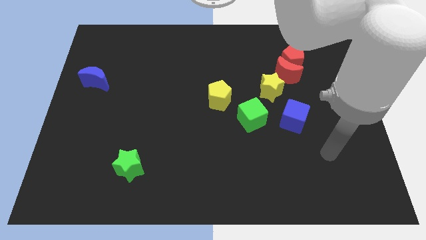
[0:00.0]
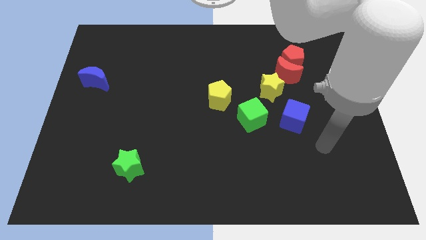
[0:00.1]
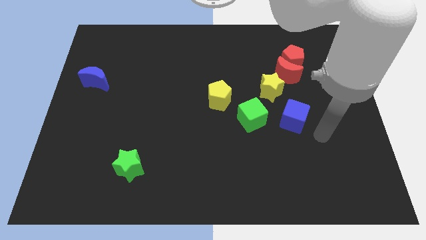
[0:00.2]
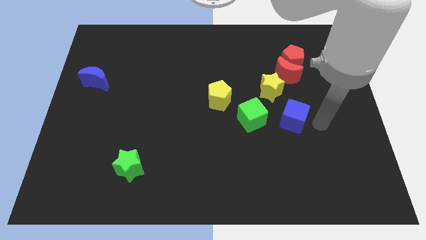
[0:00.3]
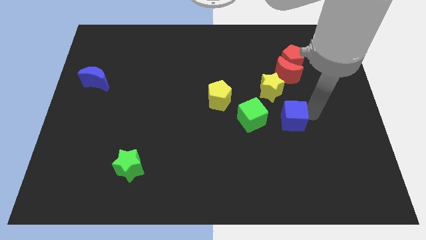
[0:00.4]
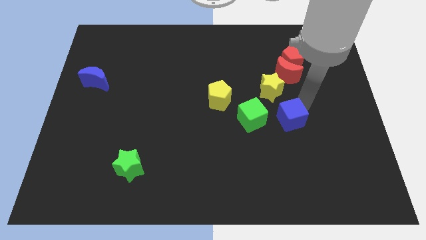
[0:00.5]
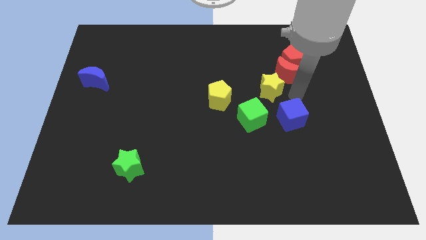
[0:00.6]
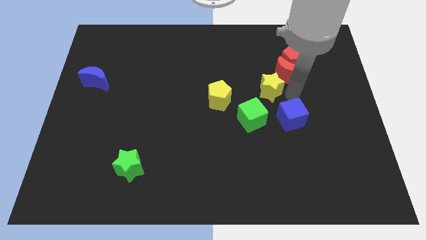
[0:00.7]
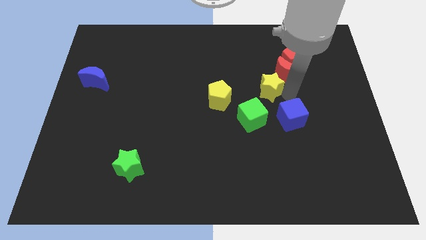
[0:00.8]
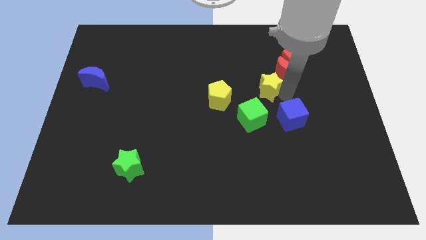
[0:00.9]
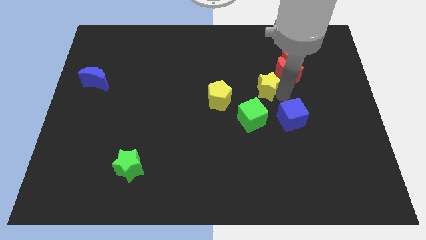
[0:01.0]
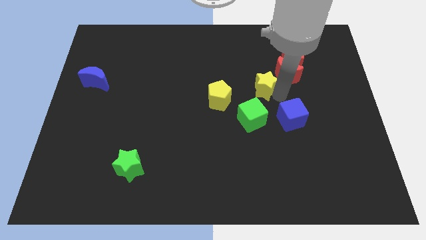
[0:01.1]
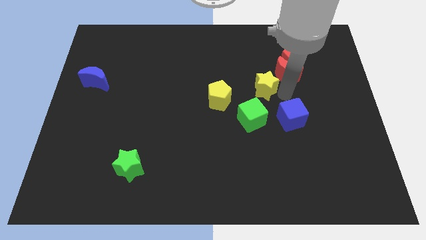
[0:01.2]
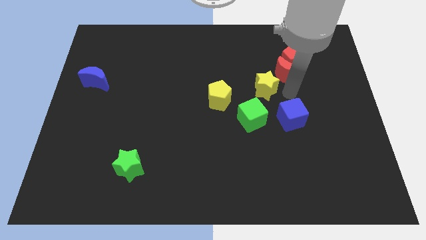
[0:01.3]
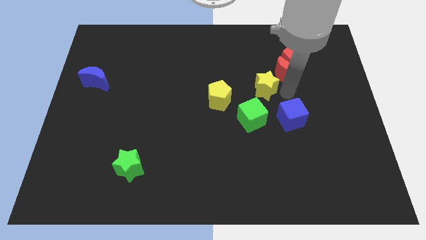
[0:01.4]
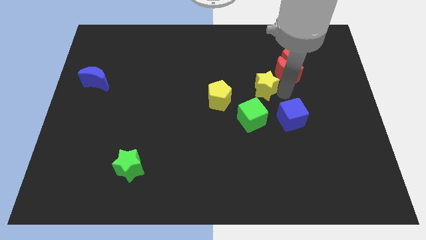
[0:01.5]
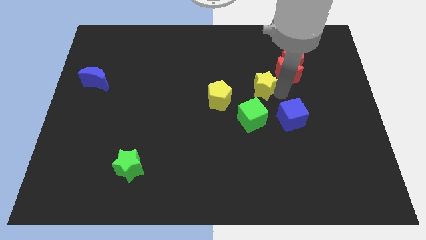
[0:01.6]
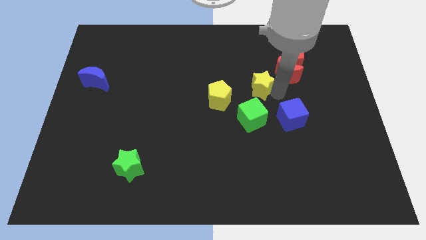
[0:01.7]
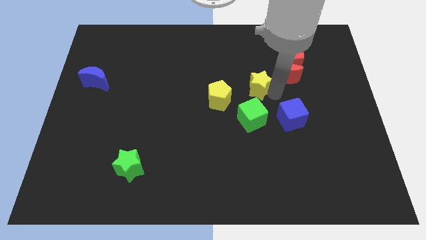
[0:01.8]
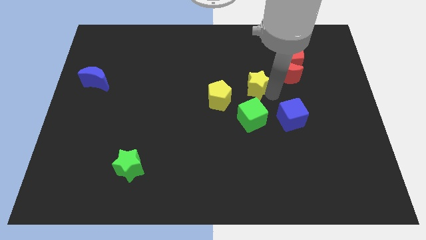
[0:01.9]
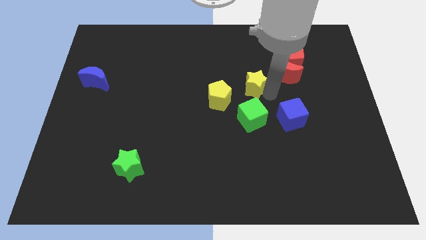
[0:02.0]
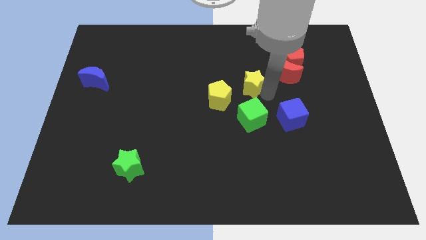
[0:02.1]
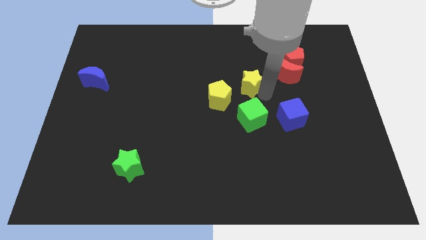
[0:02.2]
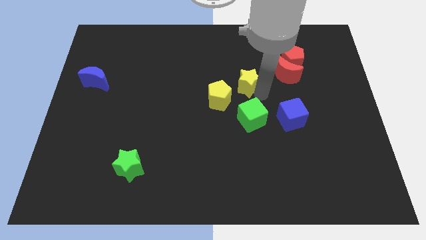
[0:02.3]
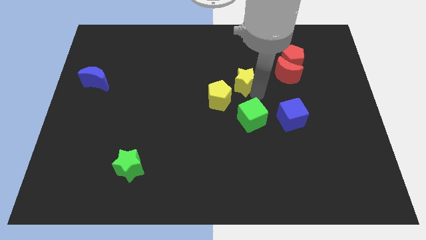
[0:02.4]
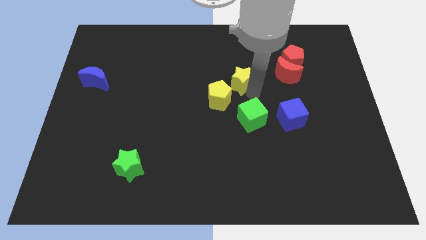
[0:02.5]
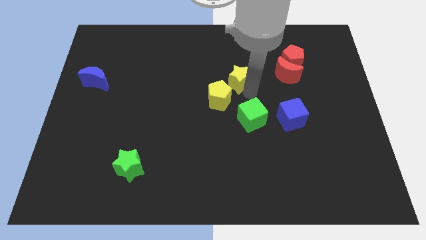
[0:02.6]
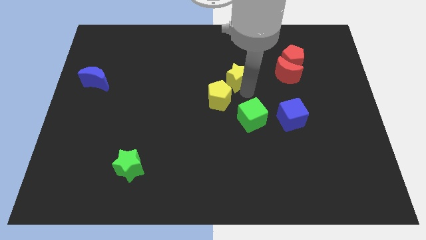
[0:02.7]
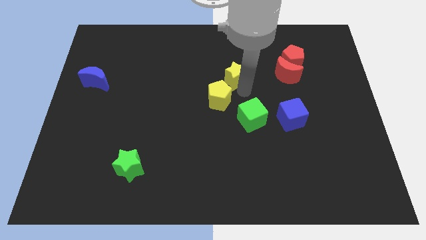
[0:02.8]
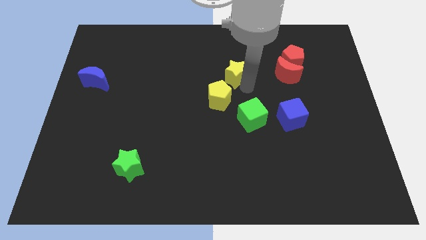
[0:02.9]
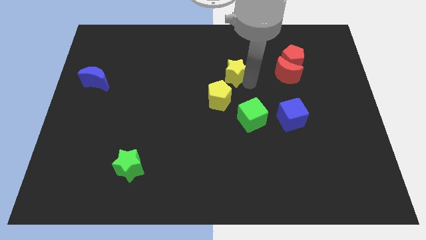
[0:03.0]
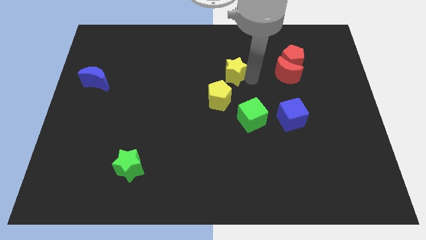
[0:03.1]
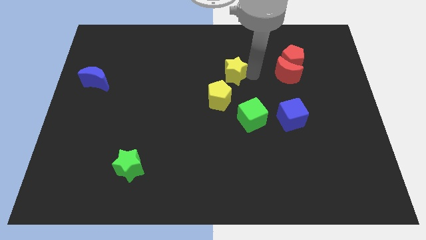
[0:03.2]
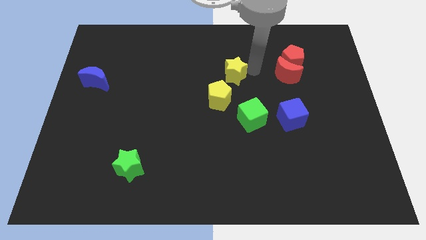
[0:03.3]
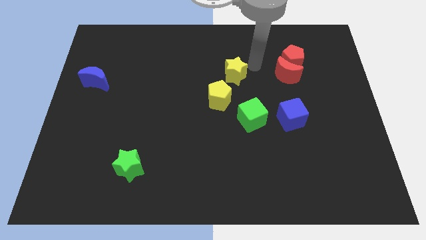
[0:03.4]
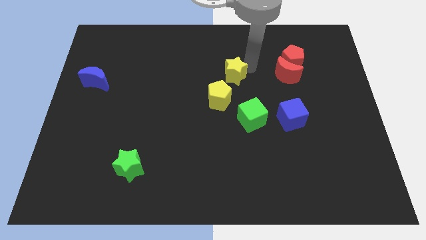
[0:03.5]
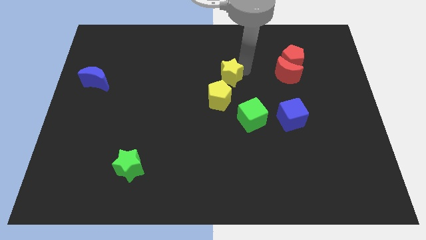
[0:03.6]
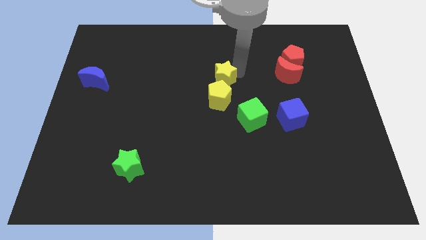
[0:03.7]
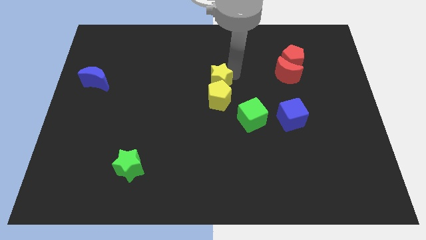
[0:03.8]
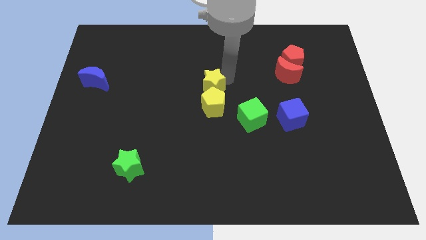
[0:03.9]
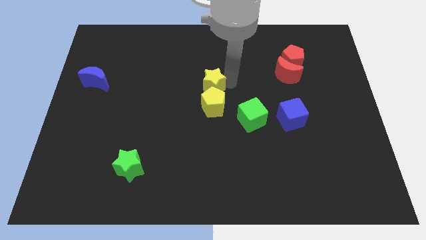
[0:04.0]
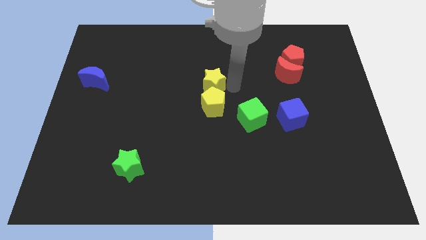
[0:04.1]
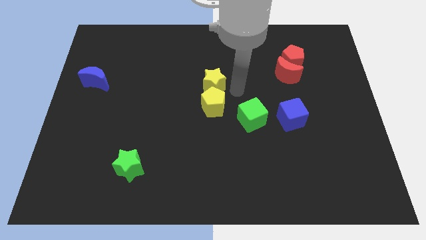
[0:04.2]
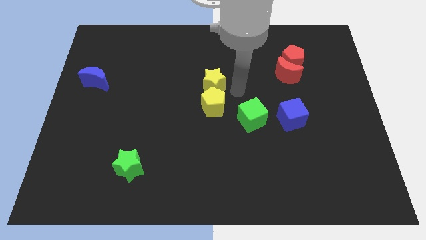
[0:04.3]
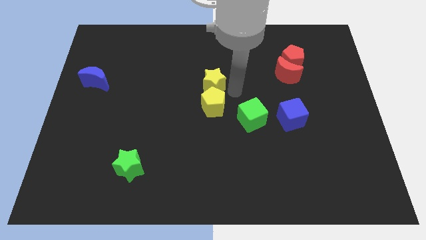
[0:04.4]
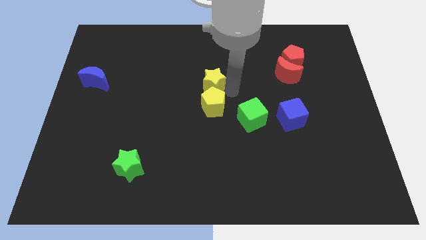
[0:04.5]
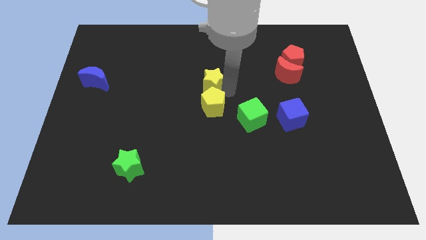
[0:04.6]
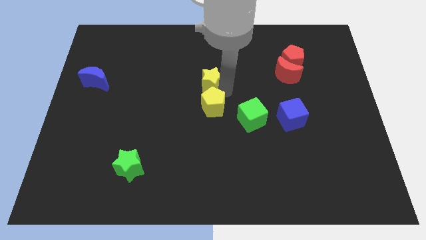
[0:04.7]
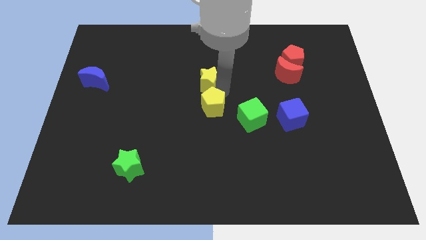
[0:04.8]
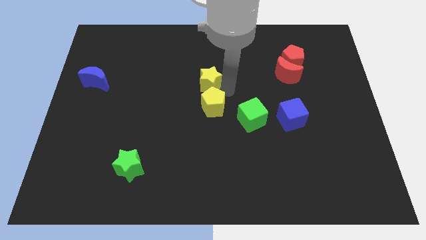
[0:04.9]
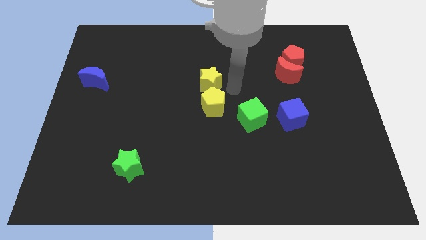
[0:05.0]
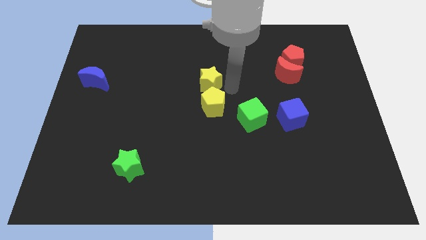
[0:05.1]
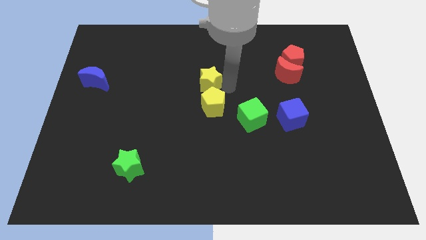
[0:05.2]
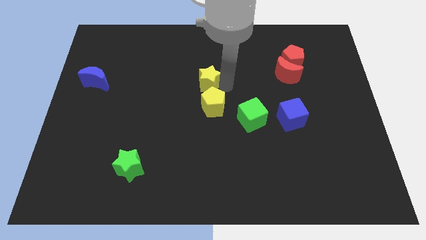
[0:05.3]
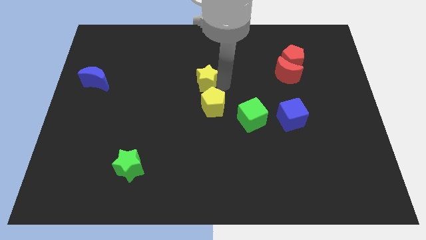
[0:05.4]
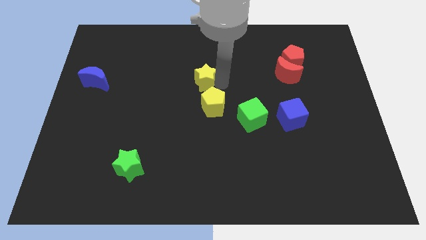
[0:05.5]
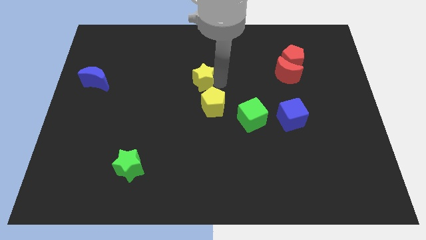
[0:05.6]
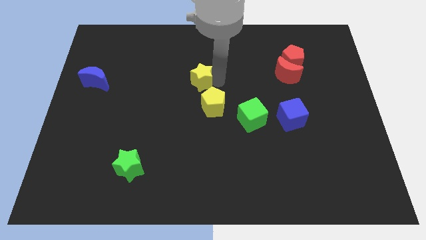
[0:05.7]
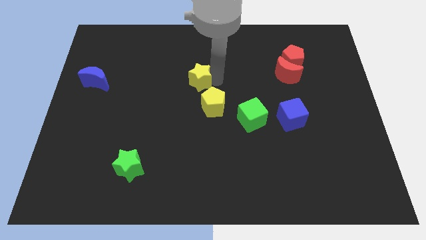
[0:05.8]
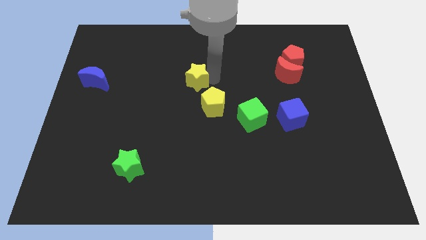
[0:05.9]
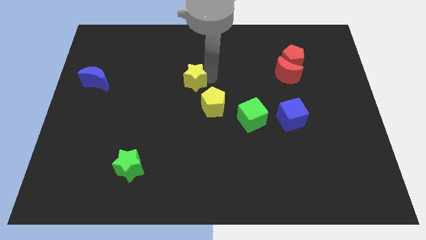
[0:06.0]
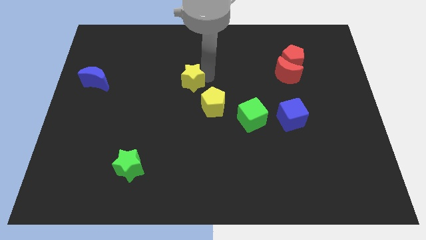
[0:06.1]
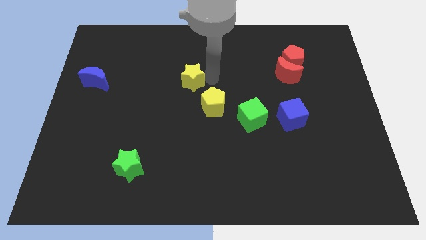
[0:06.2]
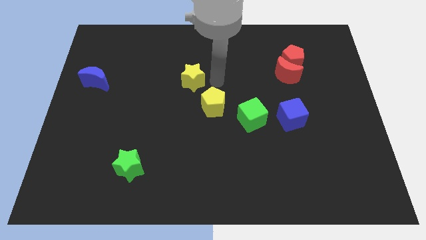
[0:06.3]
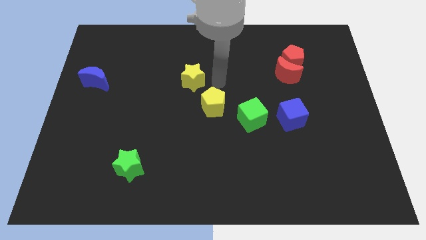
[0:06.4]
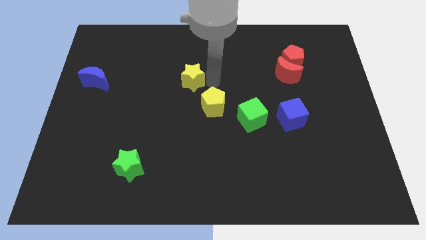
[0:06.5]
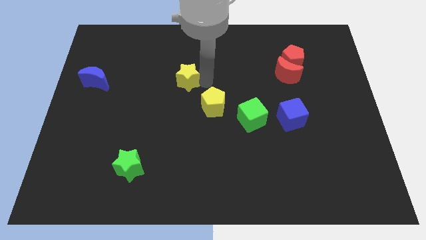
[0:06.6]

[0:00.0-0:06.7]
slide the yellow star left

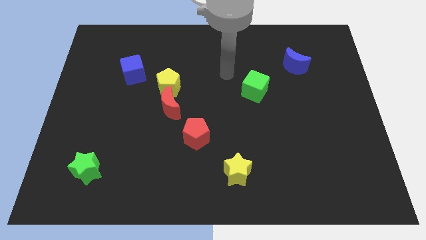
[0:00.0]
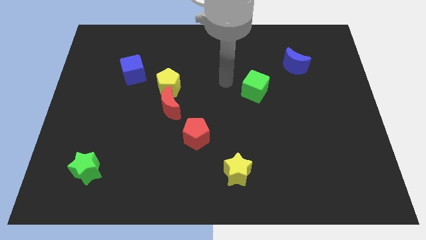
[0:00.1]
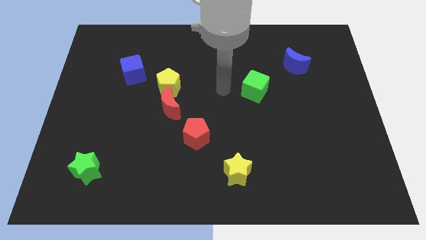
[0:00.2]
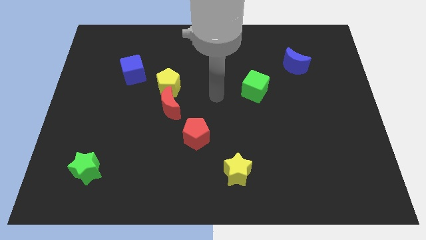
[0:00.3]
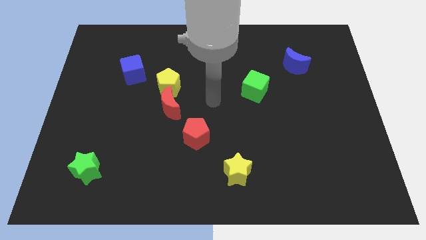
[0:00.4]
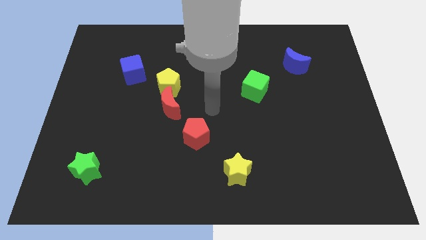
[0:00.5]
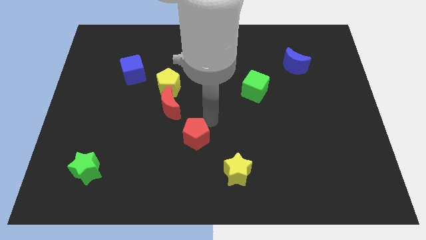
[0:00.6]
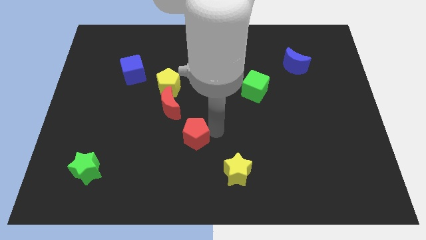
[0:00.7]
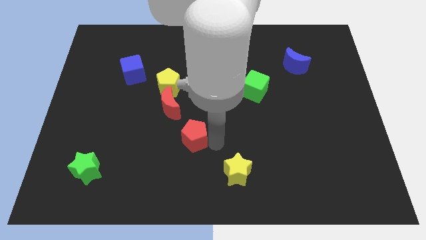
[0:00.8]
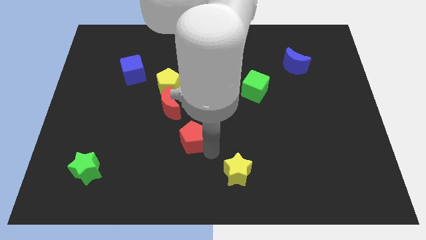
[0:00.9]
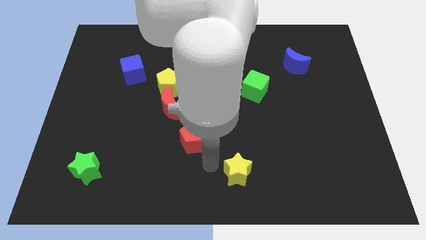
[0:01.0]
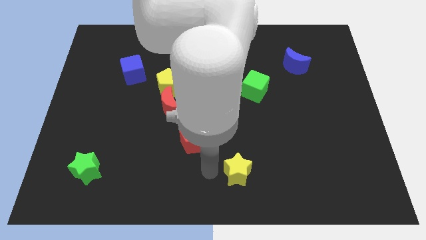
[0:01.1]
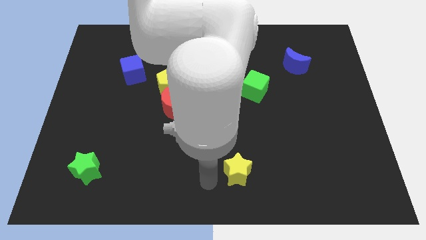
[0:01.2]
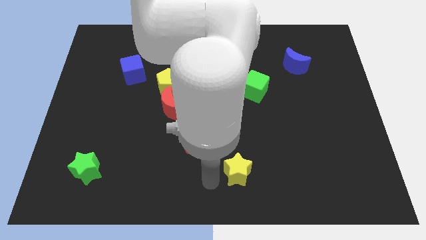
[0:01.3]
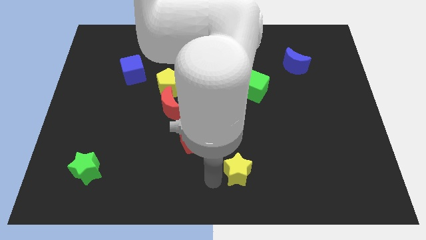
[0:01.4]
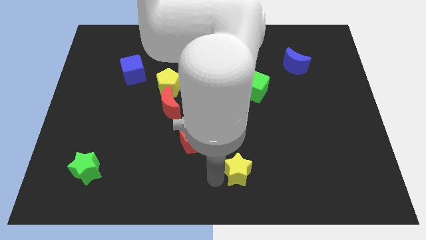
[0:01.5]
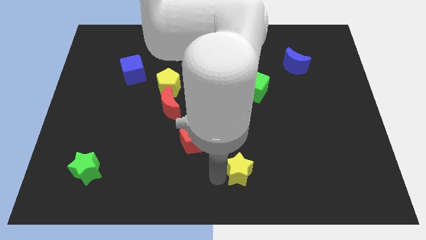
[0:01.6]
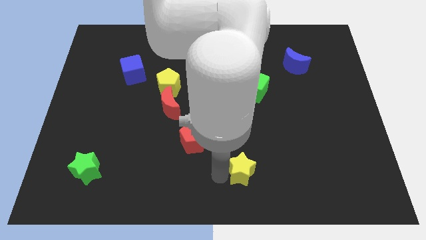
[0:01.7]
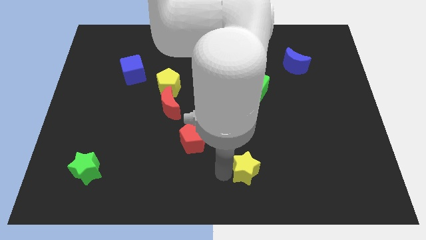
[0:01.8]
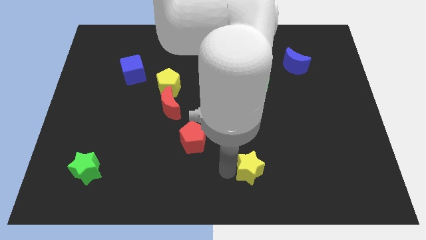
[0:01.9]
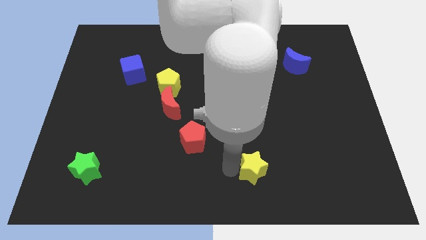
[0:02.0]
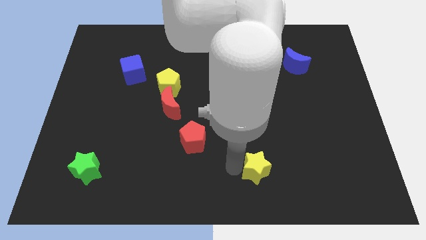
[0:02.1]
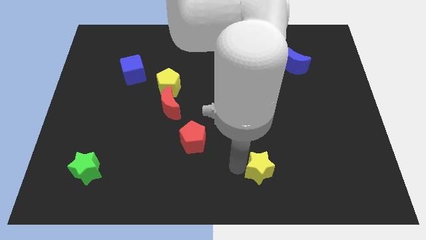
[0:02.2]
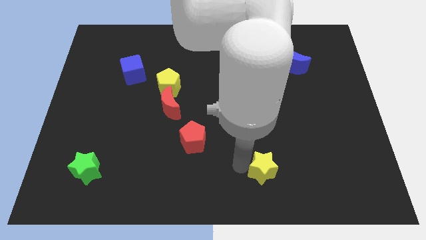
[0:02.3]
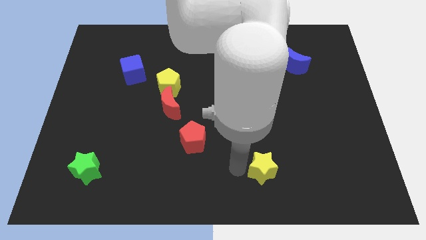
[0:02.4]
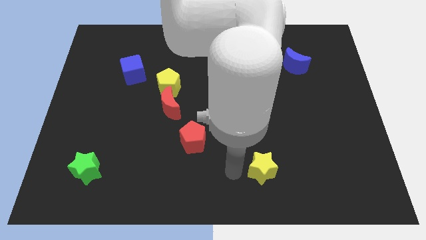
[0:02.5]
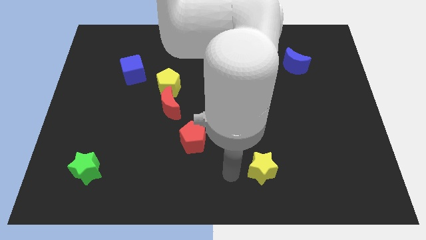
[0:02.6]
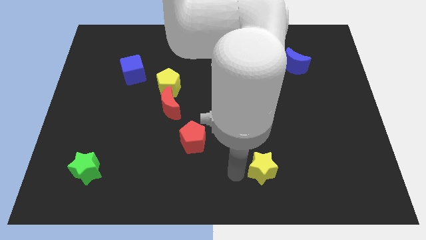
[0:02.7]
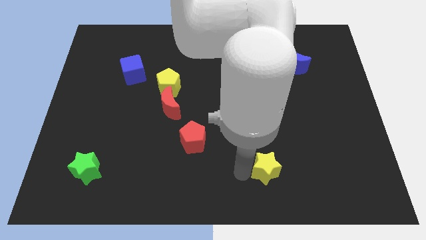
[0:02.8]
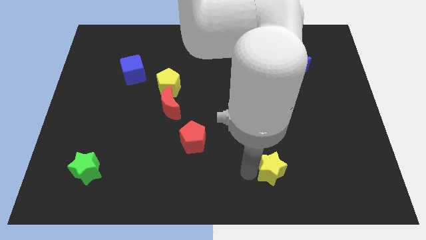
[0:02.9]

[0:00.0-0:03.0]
move the yellow star somewhat right
